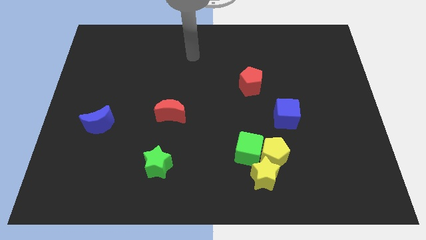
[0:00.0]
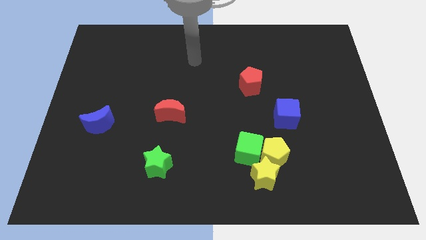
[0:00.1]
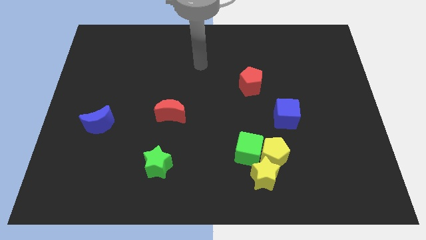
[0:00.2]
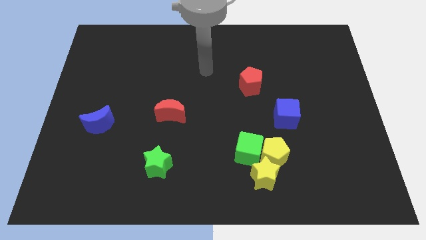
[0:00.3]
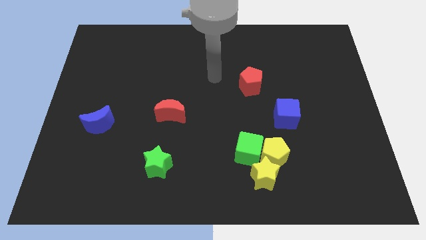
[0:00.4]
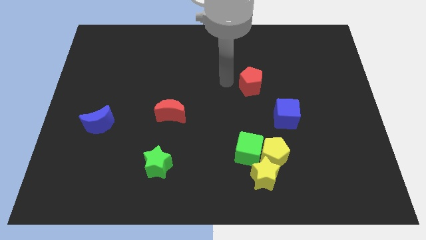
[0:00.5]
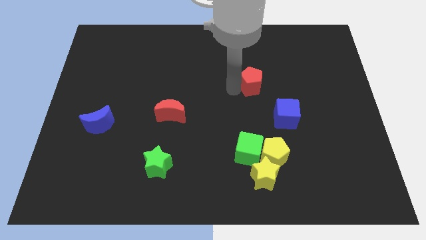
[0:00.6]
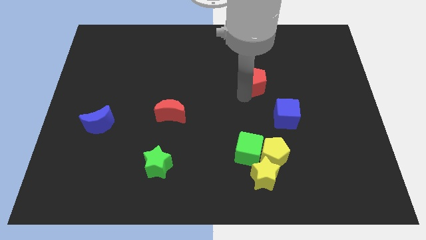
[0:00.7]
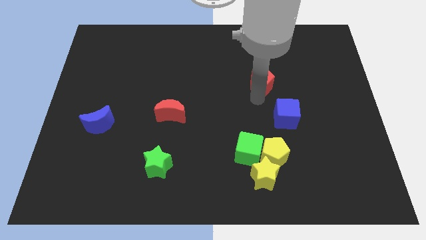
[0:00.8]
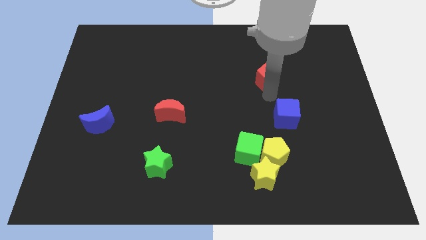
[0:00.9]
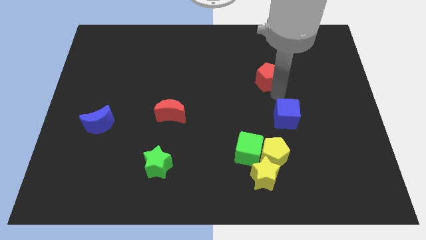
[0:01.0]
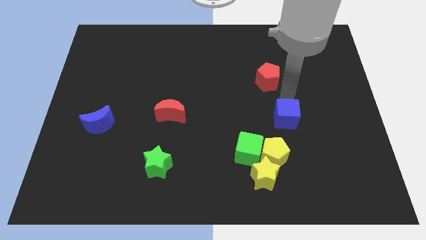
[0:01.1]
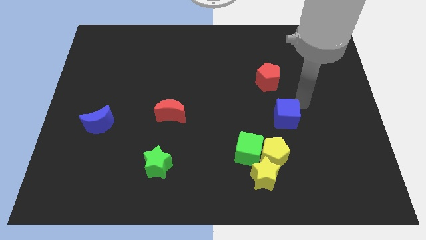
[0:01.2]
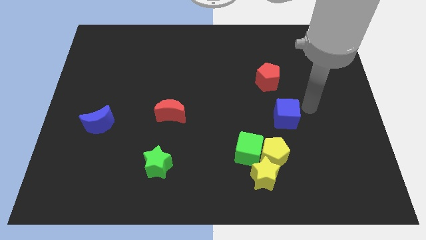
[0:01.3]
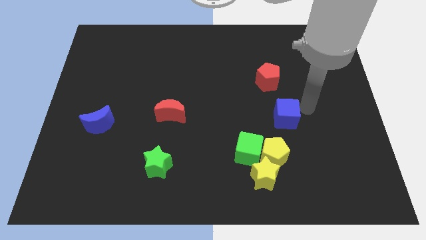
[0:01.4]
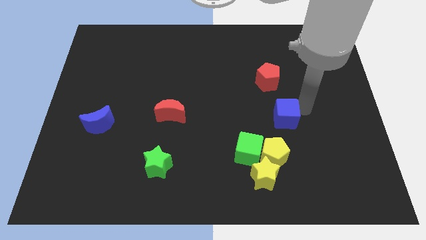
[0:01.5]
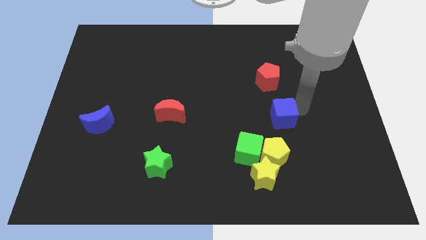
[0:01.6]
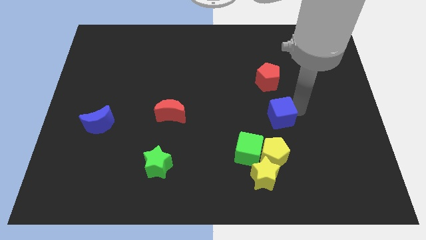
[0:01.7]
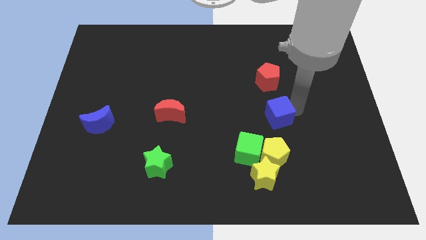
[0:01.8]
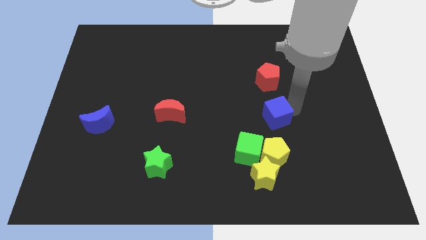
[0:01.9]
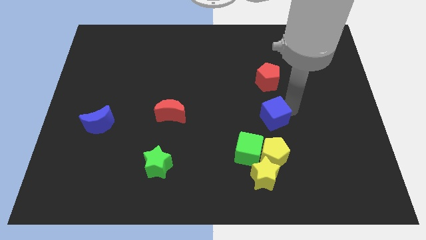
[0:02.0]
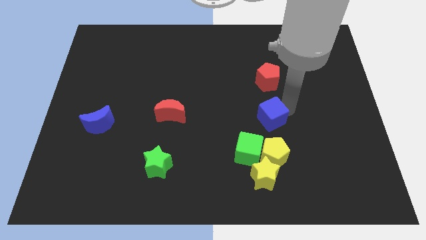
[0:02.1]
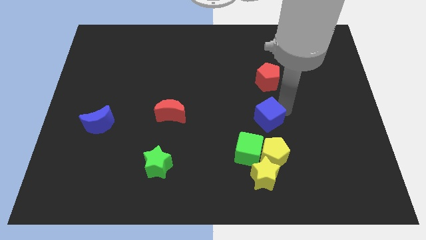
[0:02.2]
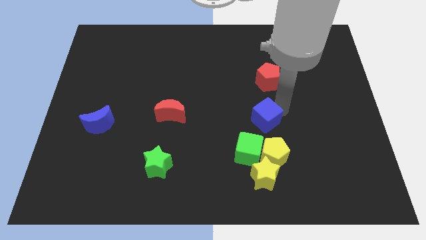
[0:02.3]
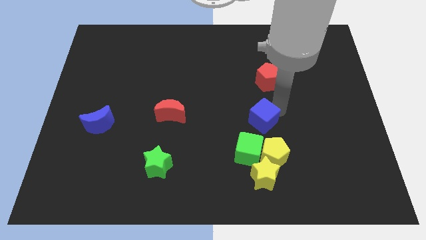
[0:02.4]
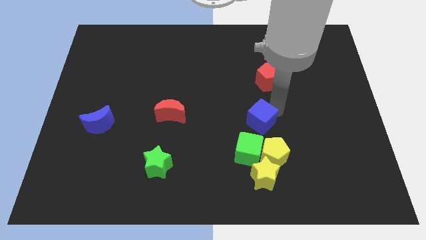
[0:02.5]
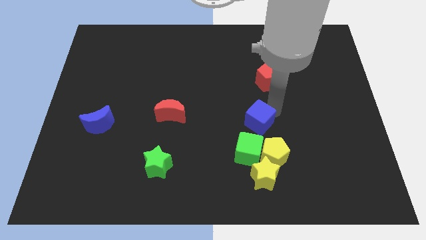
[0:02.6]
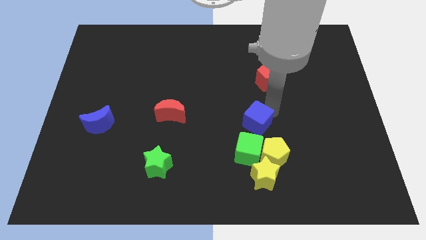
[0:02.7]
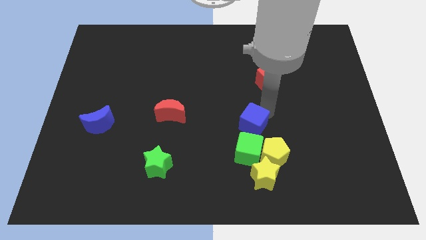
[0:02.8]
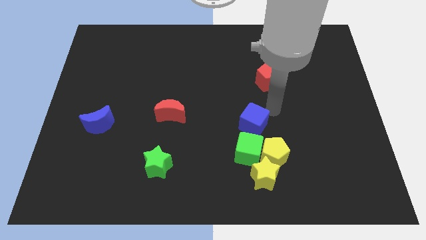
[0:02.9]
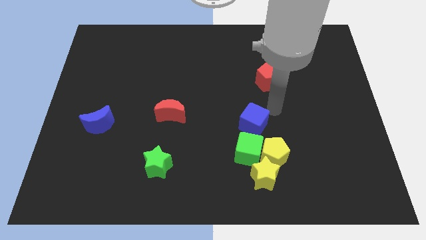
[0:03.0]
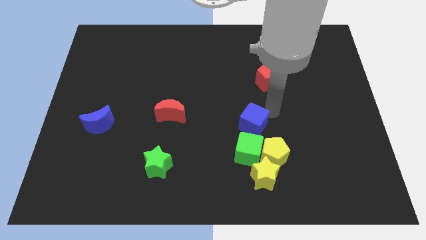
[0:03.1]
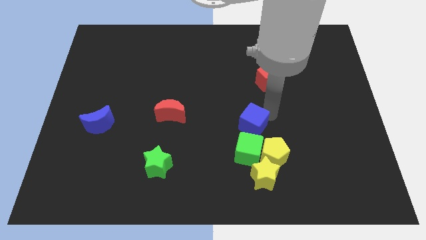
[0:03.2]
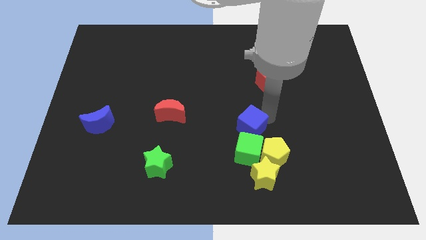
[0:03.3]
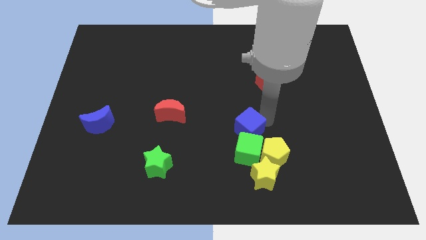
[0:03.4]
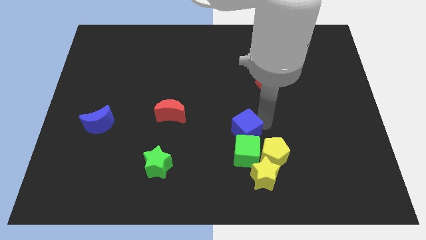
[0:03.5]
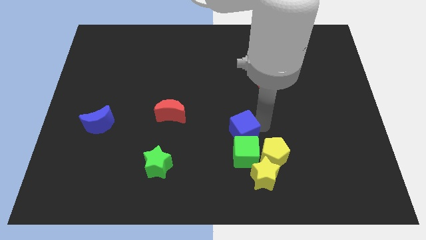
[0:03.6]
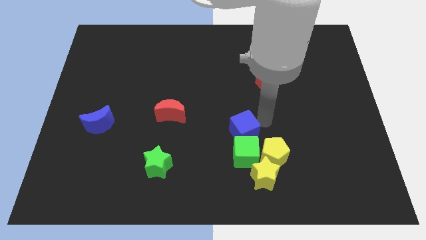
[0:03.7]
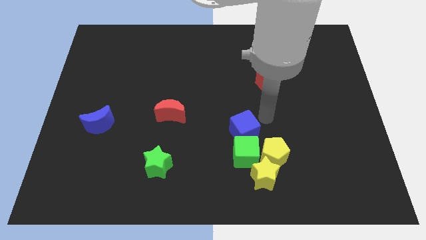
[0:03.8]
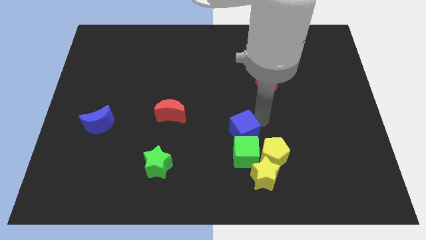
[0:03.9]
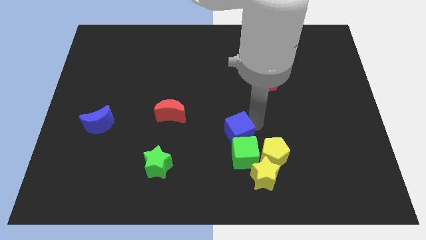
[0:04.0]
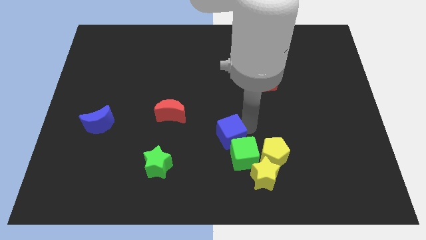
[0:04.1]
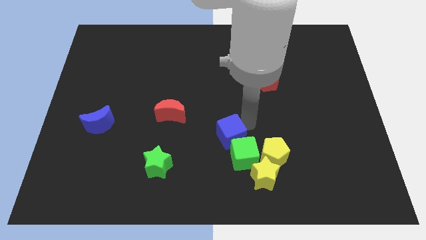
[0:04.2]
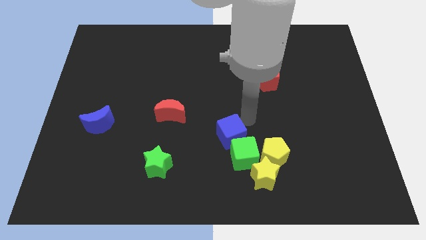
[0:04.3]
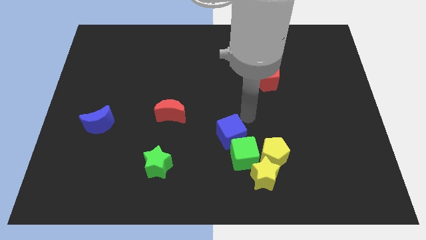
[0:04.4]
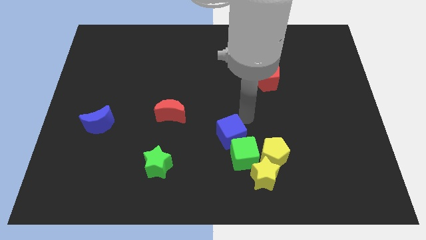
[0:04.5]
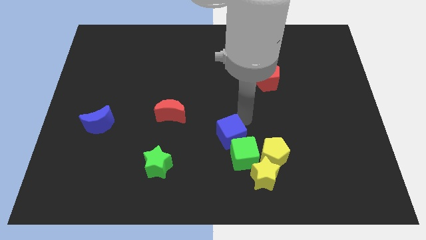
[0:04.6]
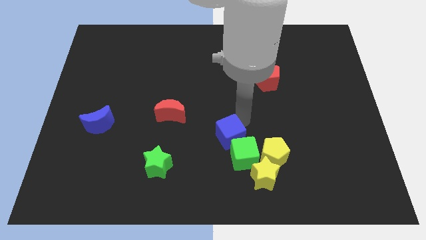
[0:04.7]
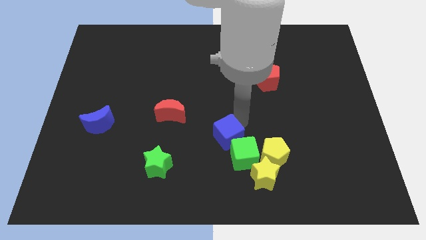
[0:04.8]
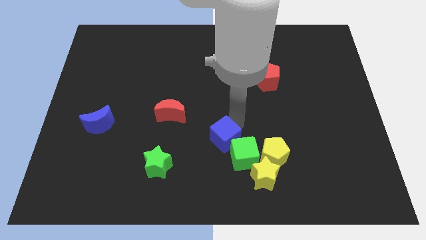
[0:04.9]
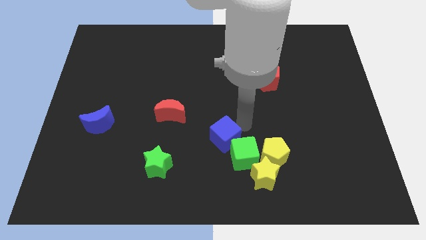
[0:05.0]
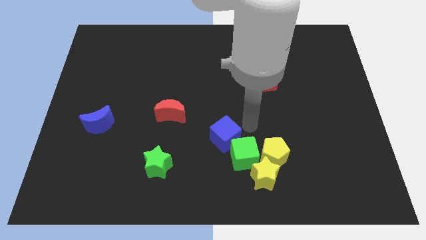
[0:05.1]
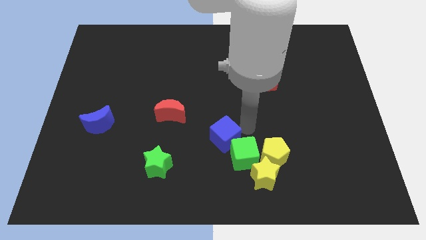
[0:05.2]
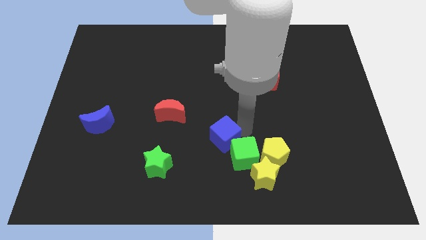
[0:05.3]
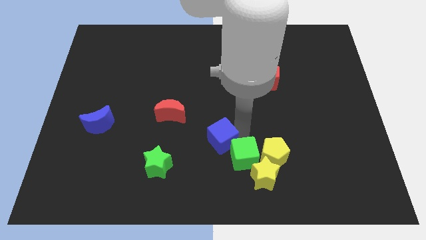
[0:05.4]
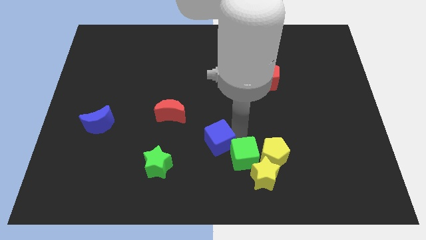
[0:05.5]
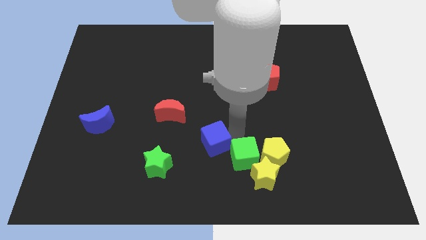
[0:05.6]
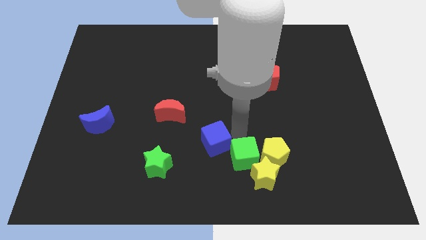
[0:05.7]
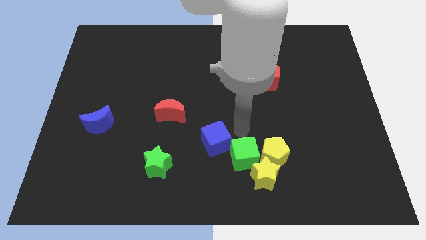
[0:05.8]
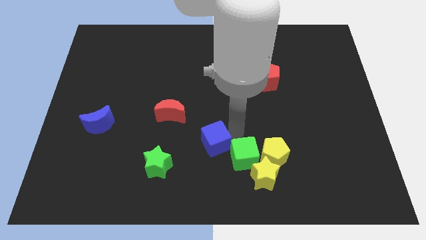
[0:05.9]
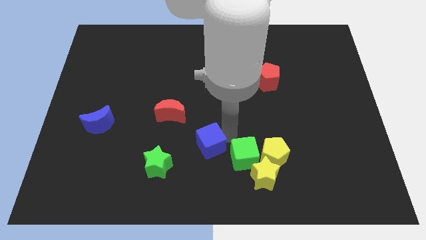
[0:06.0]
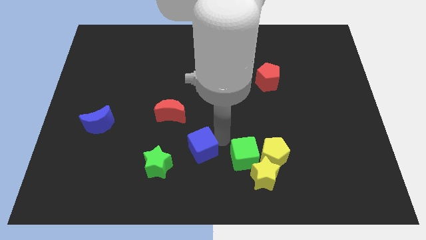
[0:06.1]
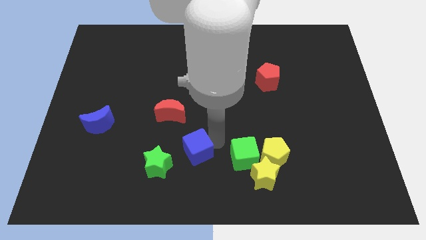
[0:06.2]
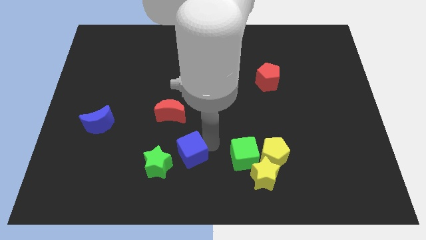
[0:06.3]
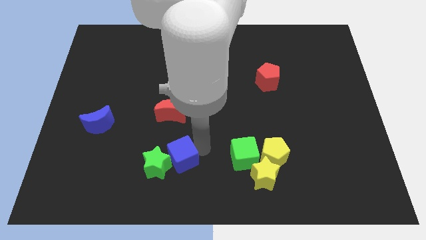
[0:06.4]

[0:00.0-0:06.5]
slide the blue cube to the green star
